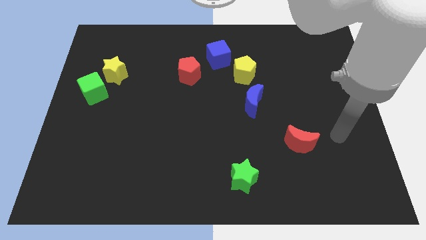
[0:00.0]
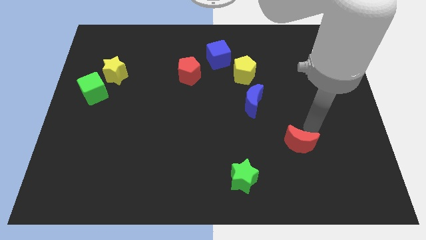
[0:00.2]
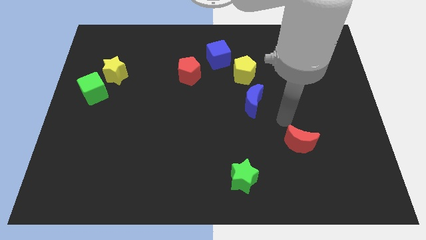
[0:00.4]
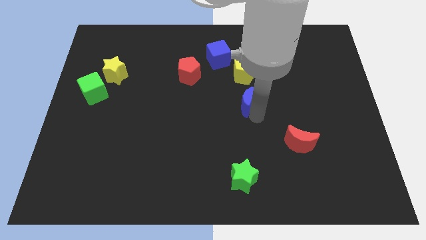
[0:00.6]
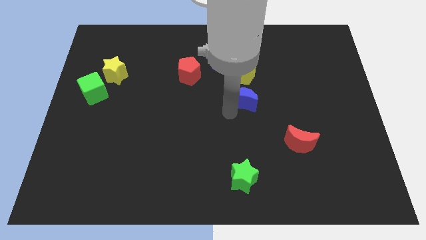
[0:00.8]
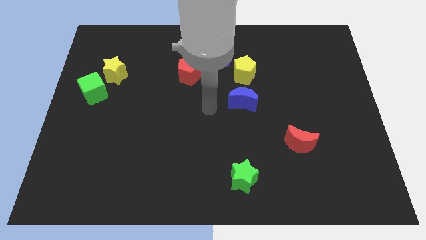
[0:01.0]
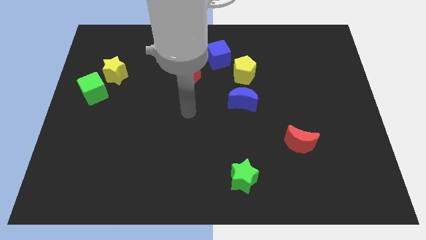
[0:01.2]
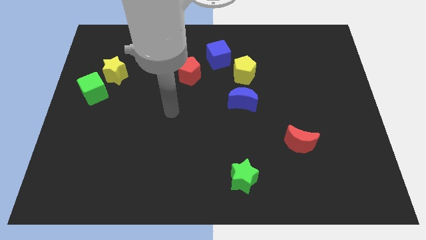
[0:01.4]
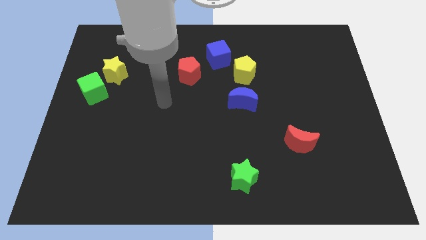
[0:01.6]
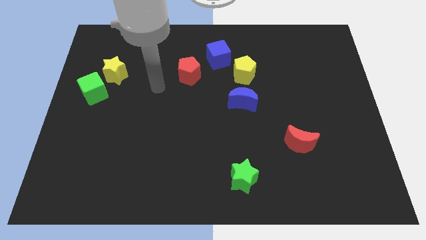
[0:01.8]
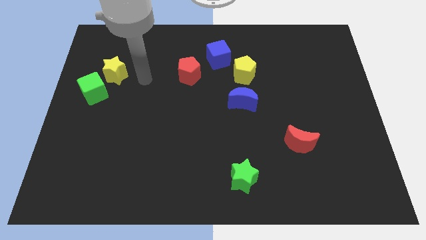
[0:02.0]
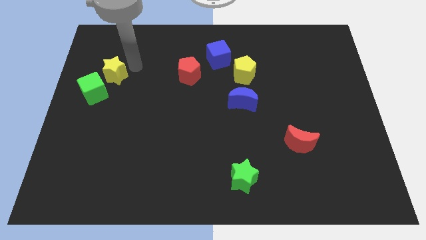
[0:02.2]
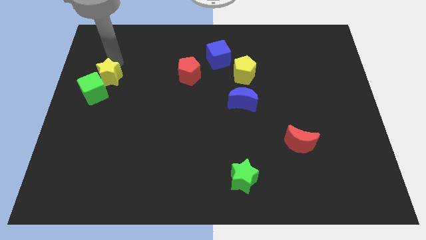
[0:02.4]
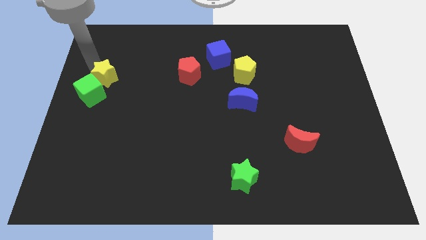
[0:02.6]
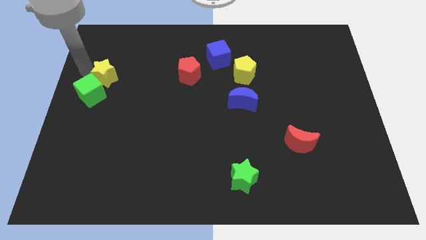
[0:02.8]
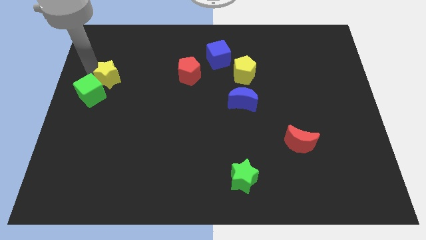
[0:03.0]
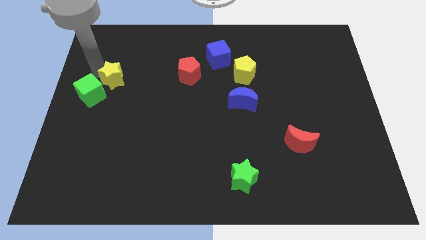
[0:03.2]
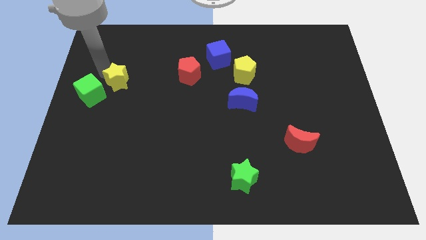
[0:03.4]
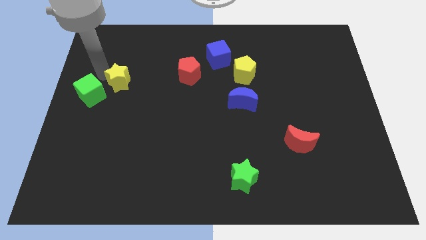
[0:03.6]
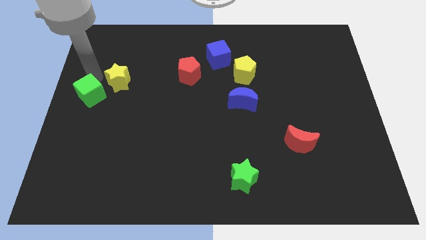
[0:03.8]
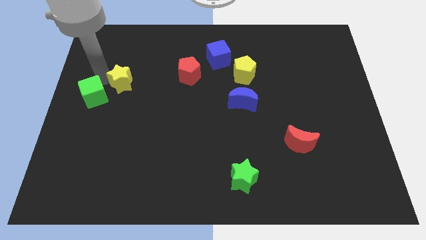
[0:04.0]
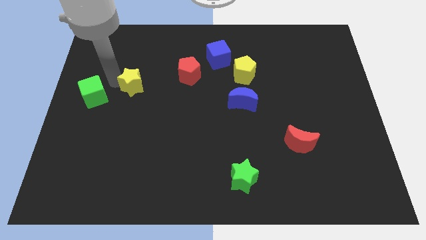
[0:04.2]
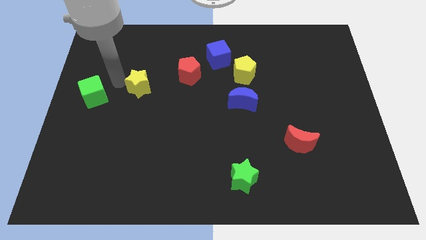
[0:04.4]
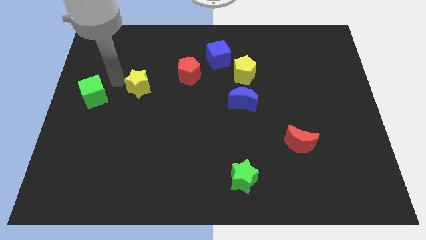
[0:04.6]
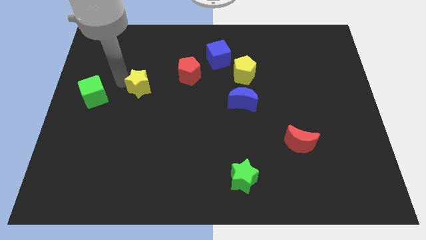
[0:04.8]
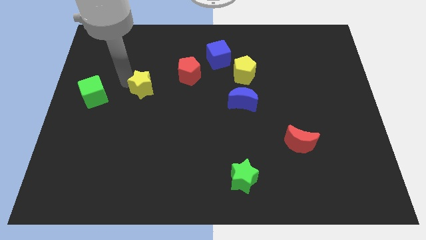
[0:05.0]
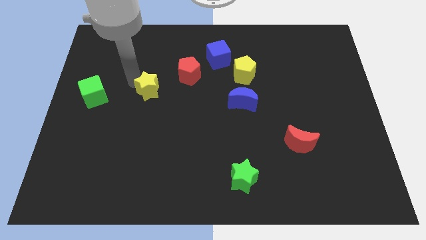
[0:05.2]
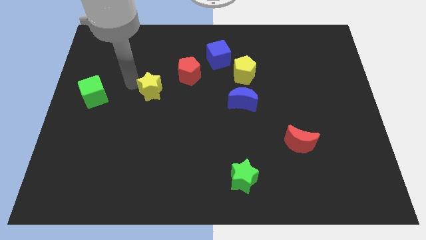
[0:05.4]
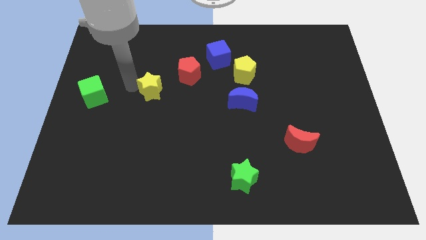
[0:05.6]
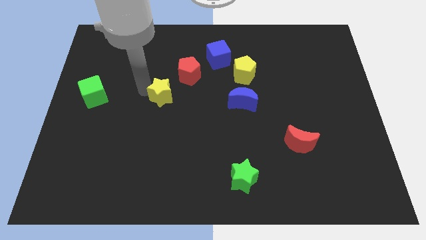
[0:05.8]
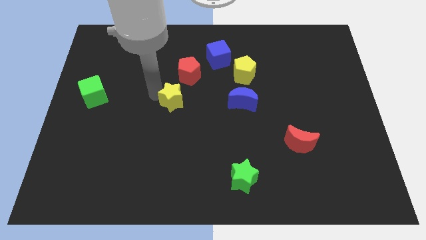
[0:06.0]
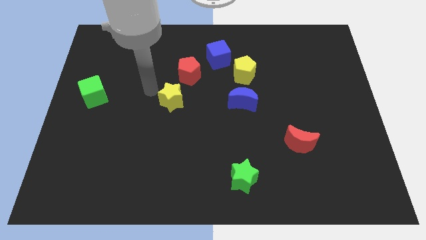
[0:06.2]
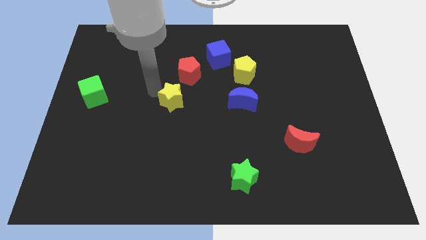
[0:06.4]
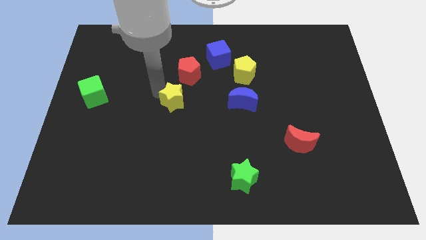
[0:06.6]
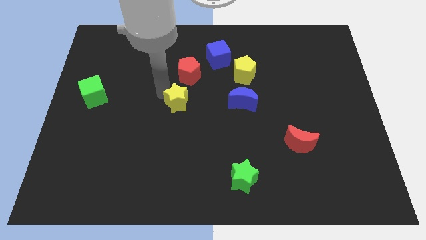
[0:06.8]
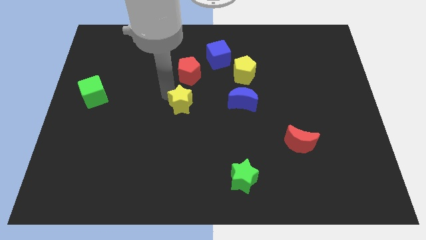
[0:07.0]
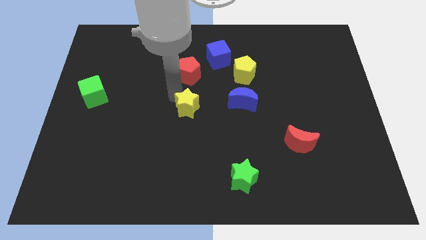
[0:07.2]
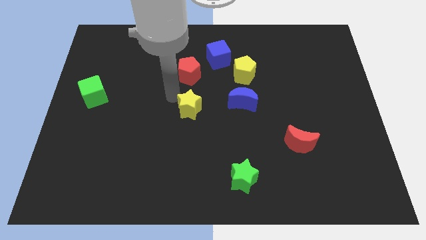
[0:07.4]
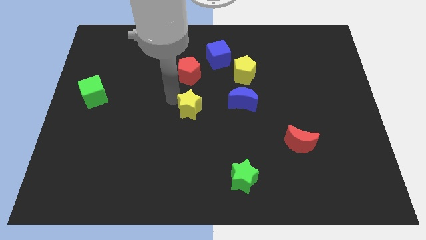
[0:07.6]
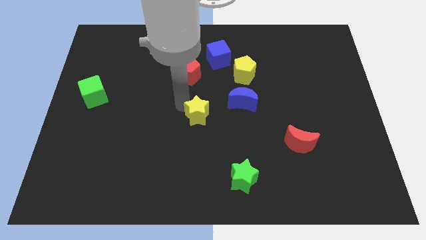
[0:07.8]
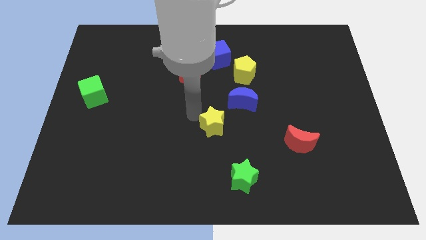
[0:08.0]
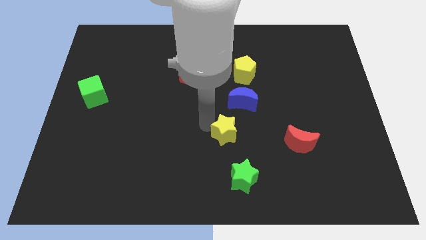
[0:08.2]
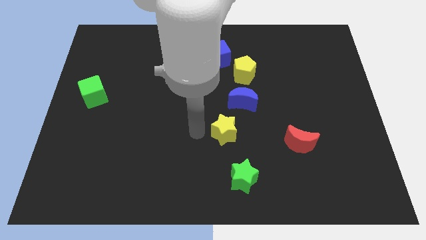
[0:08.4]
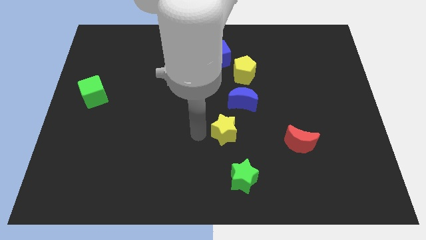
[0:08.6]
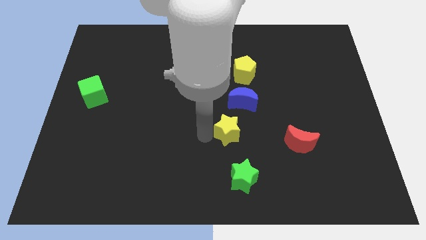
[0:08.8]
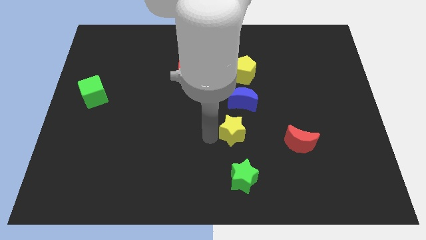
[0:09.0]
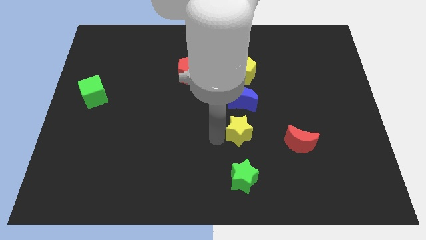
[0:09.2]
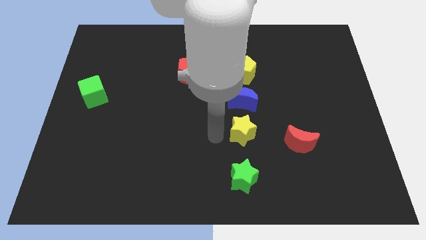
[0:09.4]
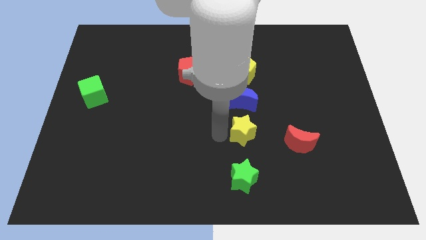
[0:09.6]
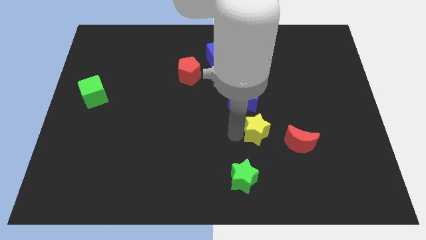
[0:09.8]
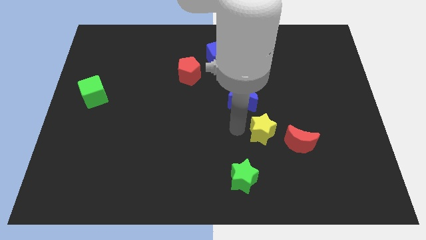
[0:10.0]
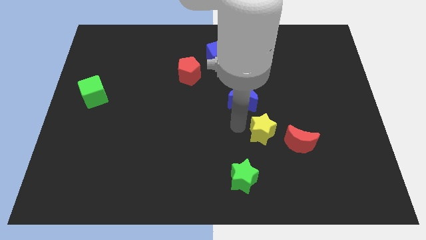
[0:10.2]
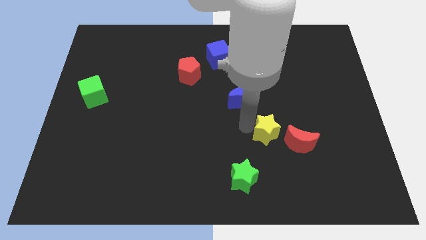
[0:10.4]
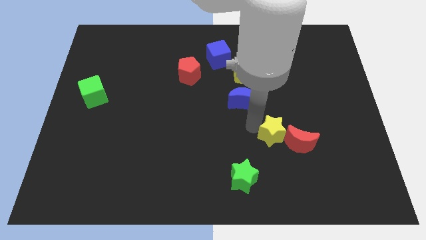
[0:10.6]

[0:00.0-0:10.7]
push the yellow star to the red moon

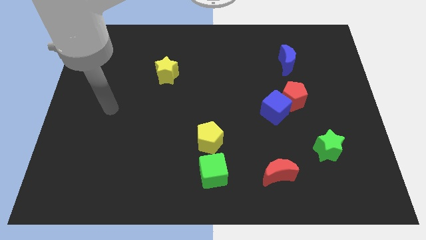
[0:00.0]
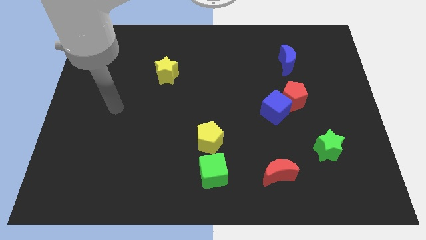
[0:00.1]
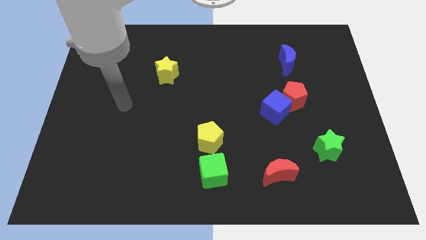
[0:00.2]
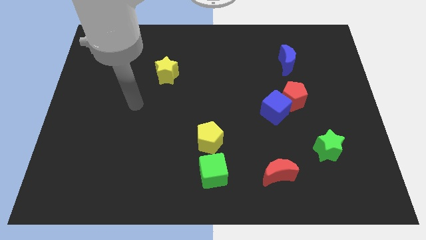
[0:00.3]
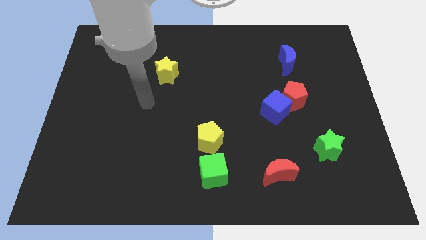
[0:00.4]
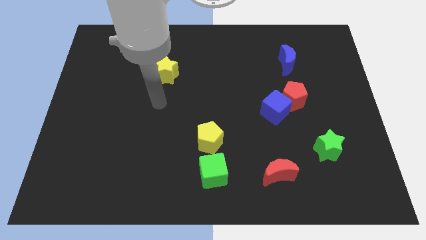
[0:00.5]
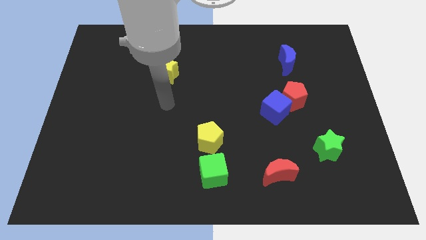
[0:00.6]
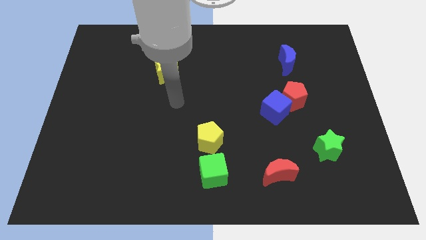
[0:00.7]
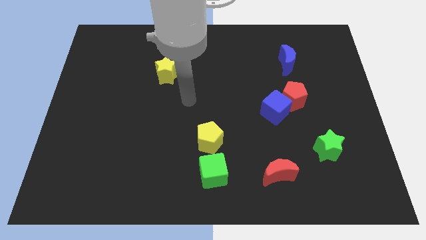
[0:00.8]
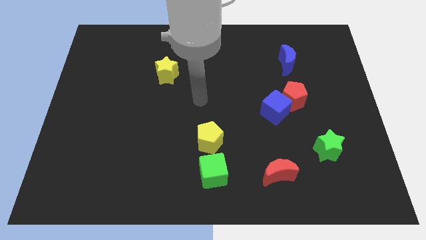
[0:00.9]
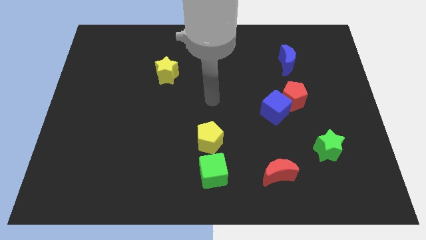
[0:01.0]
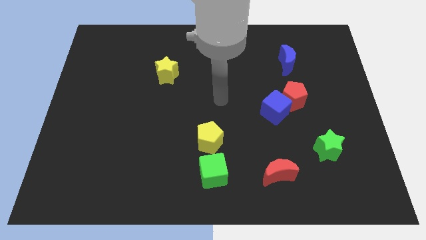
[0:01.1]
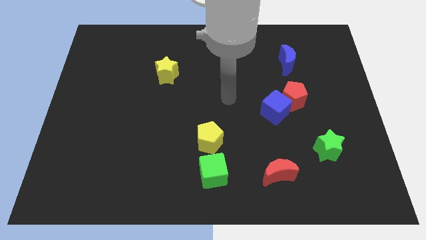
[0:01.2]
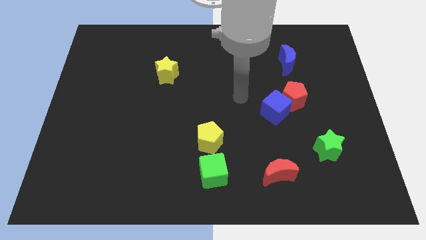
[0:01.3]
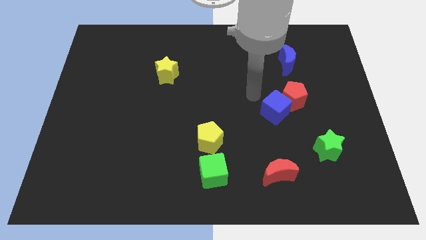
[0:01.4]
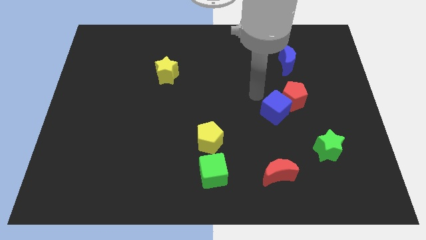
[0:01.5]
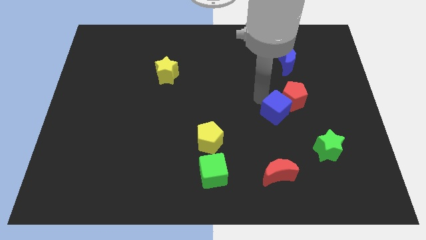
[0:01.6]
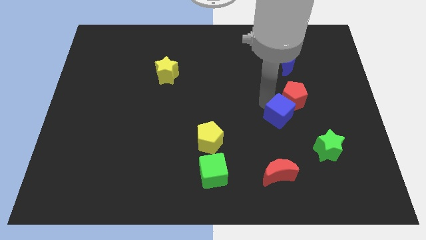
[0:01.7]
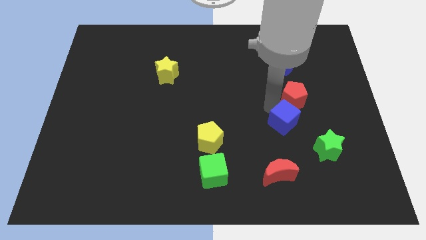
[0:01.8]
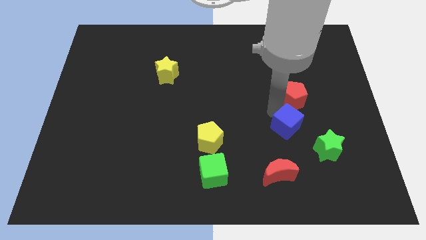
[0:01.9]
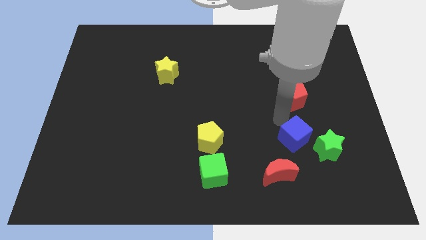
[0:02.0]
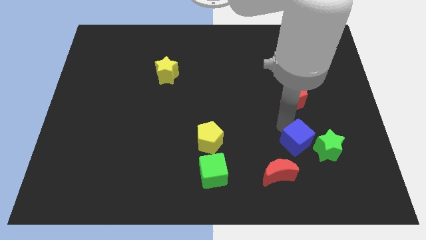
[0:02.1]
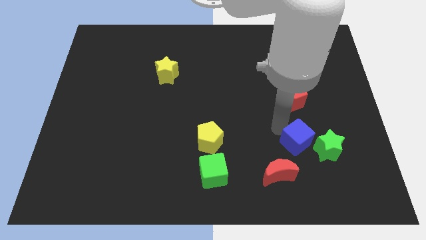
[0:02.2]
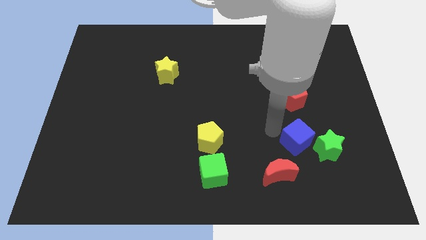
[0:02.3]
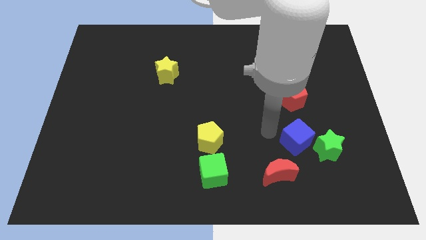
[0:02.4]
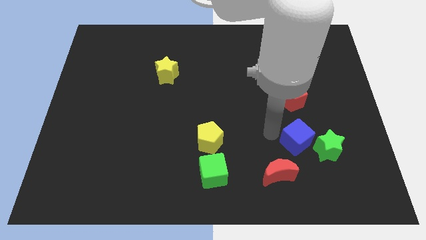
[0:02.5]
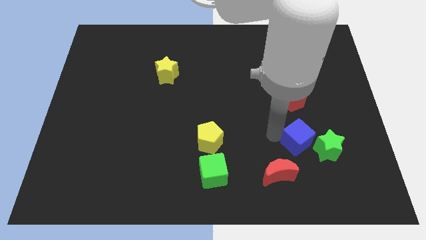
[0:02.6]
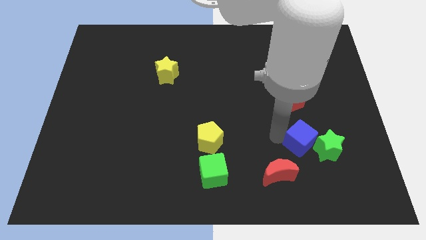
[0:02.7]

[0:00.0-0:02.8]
put the blue cube towards the green star
